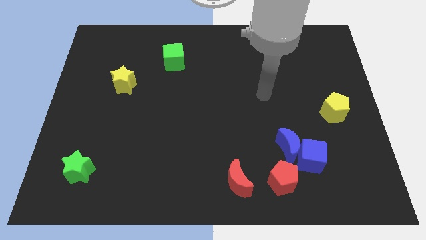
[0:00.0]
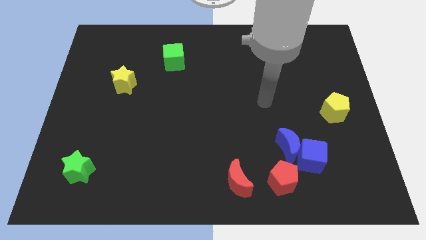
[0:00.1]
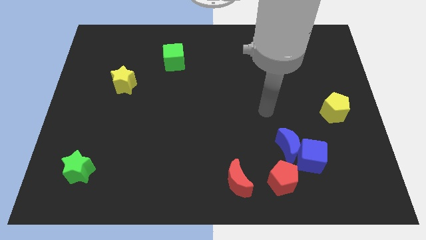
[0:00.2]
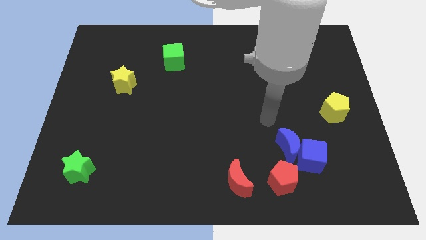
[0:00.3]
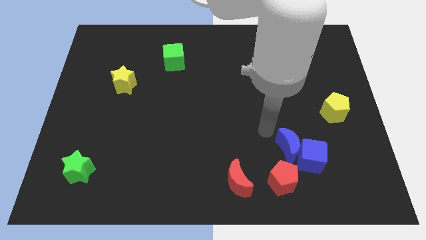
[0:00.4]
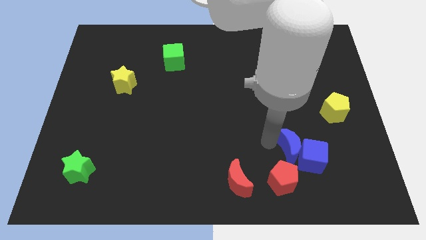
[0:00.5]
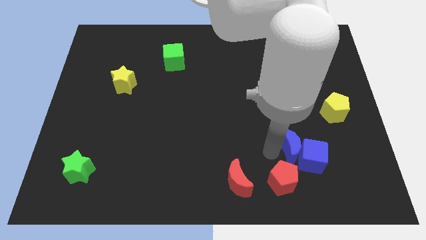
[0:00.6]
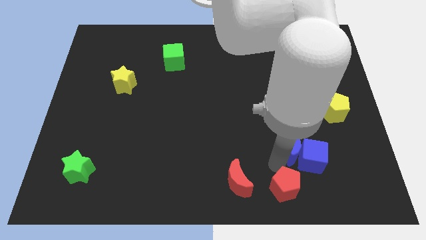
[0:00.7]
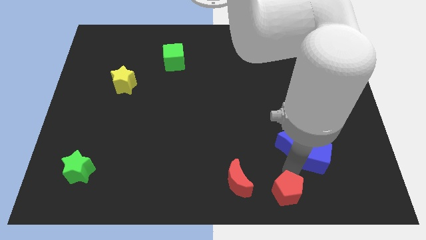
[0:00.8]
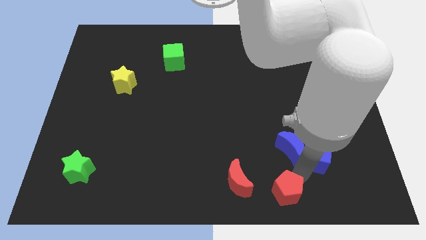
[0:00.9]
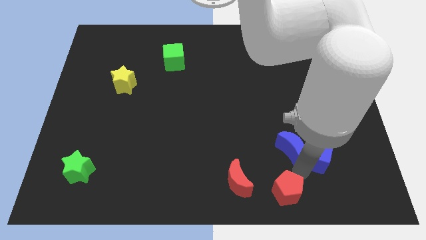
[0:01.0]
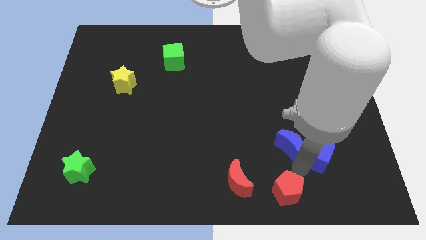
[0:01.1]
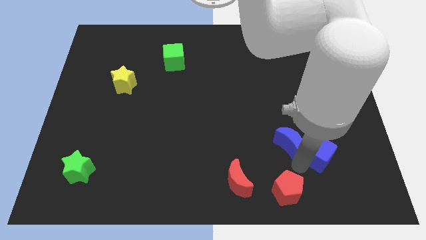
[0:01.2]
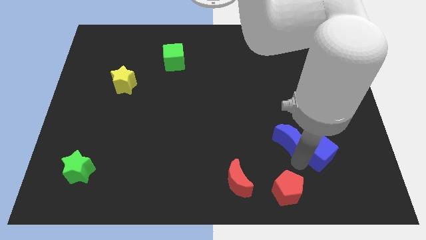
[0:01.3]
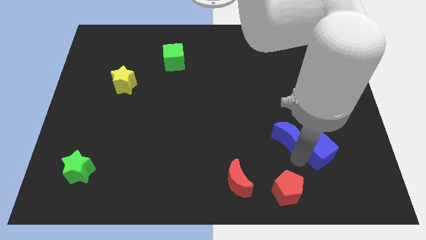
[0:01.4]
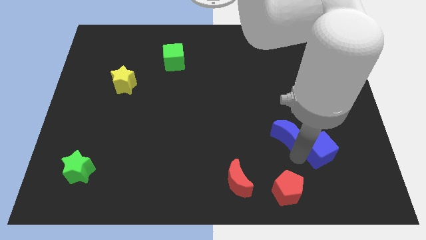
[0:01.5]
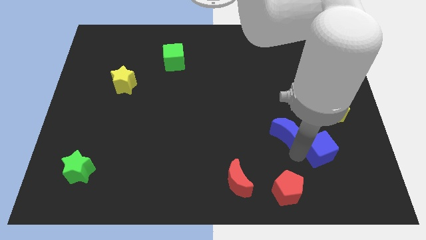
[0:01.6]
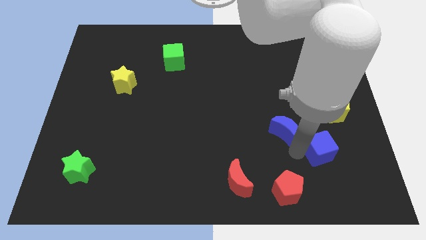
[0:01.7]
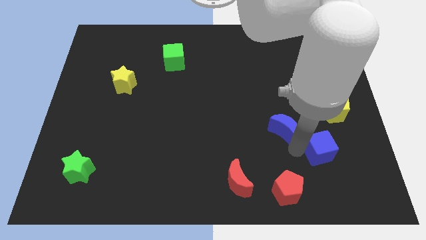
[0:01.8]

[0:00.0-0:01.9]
move the blue moon away from the blue cube and red pentagon

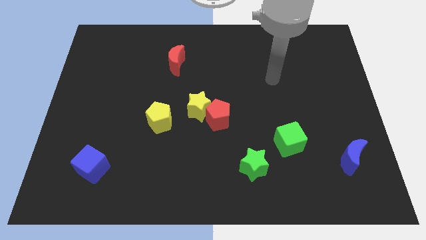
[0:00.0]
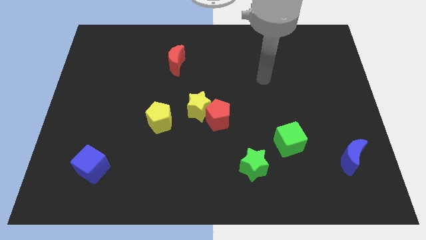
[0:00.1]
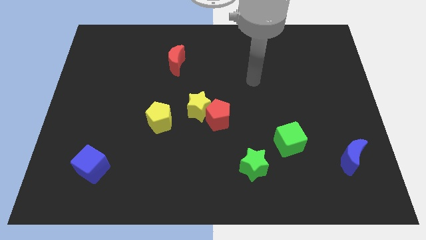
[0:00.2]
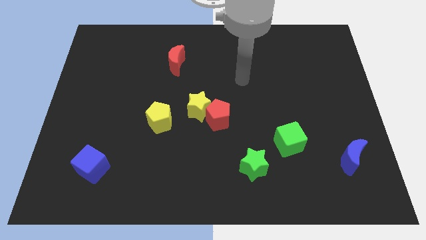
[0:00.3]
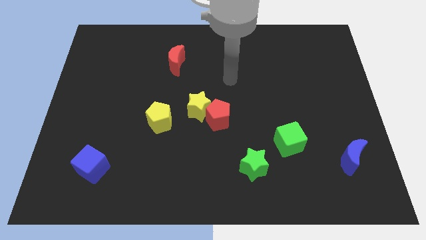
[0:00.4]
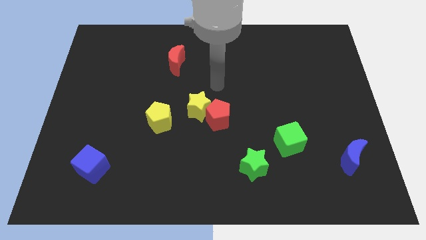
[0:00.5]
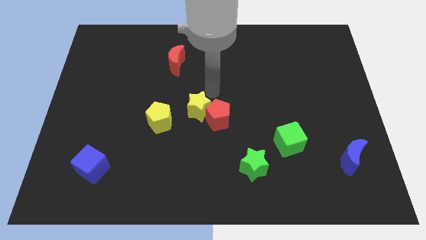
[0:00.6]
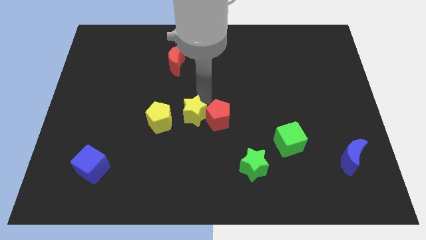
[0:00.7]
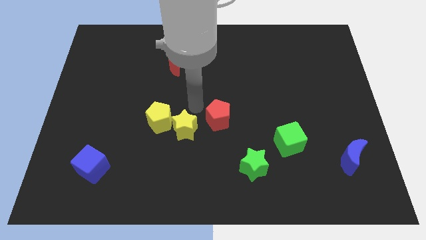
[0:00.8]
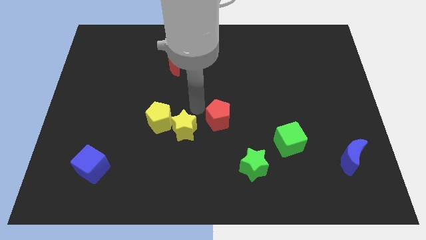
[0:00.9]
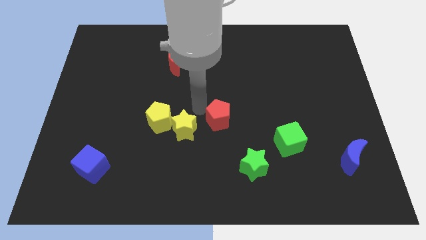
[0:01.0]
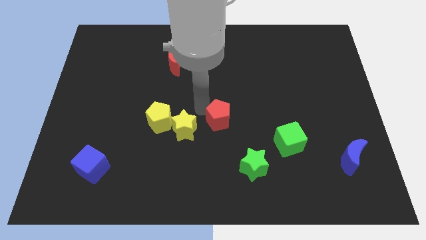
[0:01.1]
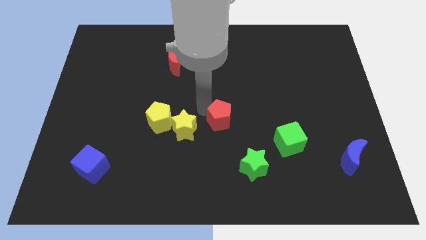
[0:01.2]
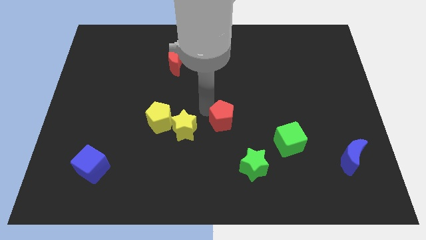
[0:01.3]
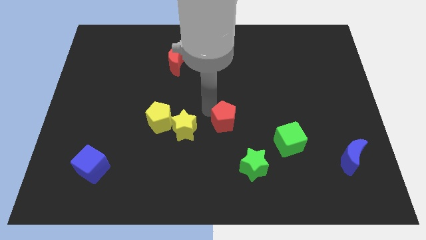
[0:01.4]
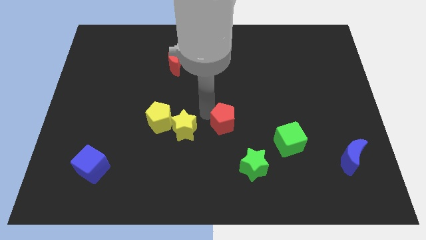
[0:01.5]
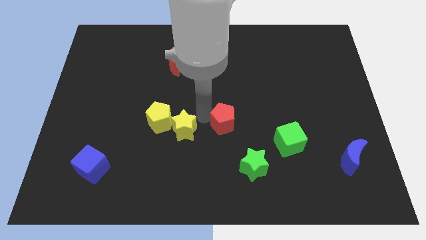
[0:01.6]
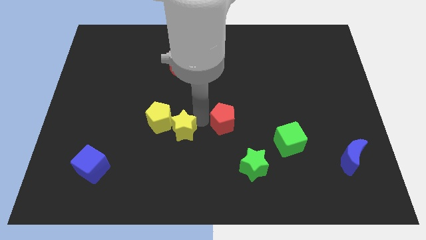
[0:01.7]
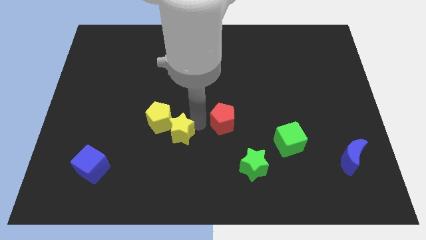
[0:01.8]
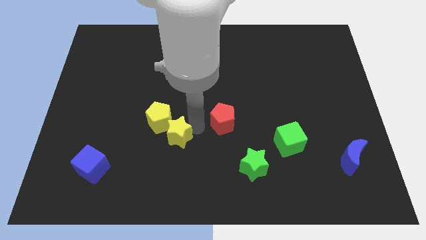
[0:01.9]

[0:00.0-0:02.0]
move the red pentagon away from the yellow star

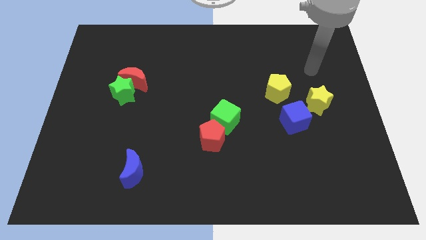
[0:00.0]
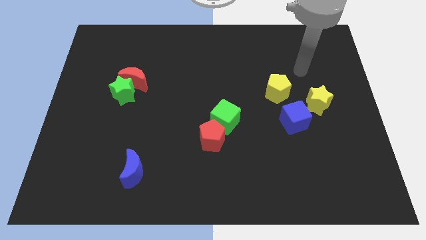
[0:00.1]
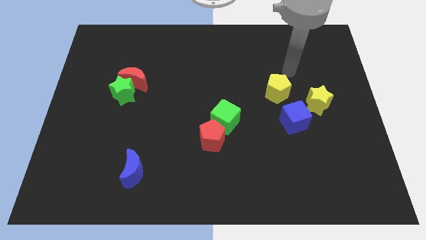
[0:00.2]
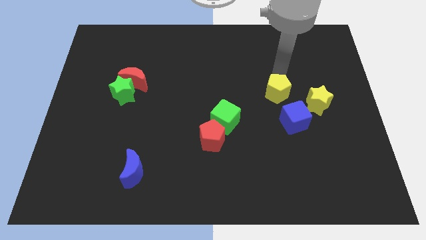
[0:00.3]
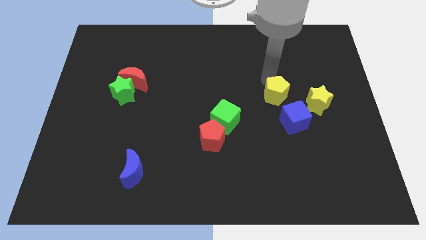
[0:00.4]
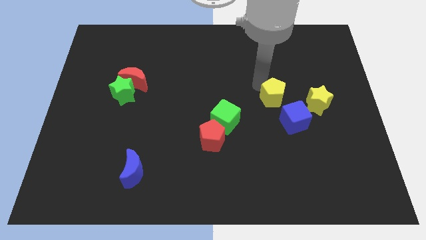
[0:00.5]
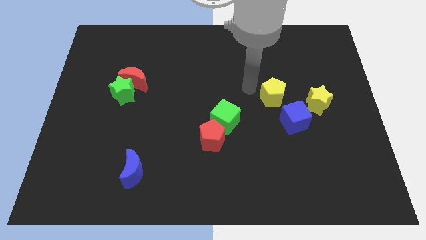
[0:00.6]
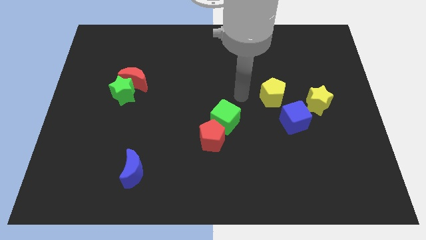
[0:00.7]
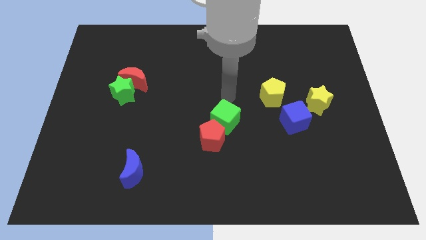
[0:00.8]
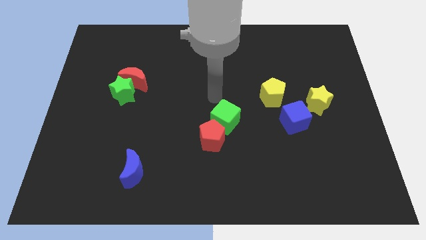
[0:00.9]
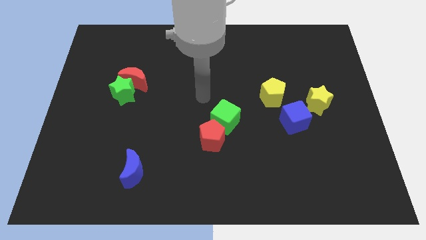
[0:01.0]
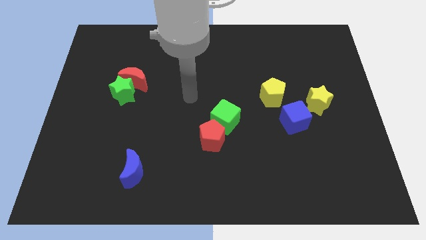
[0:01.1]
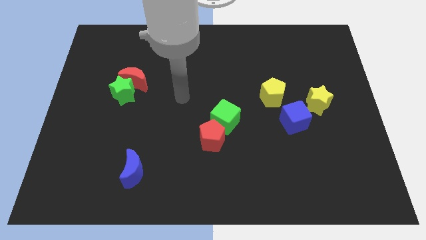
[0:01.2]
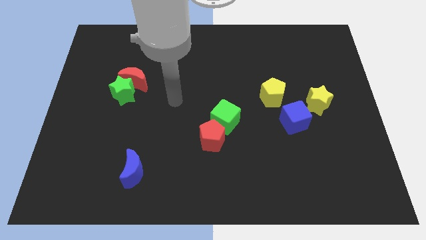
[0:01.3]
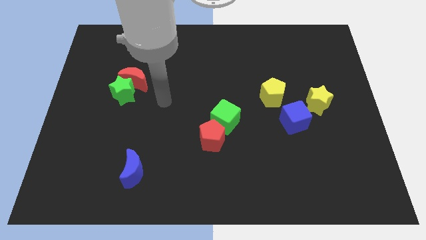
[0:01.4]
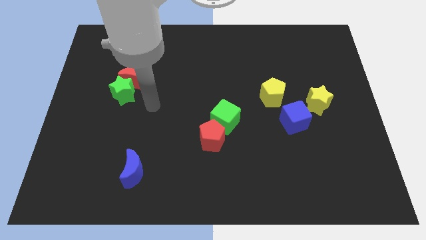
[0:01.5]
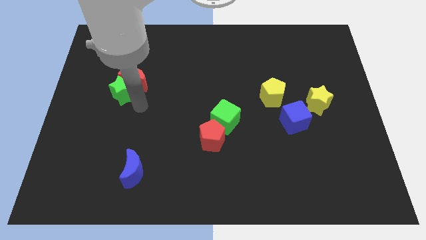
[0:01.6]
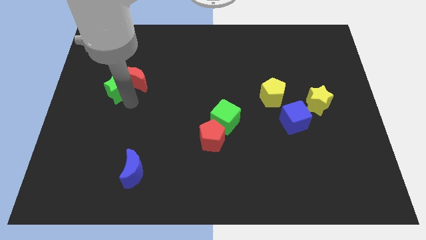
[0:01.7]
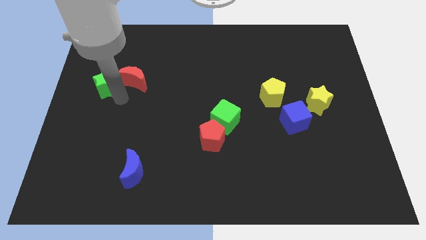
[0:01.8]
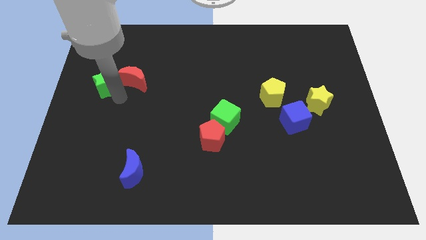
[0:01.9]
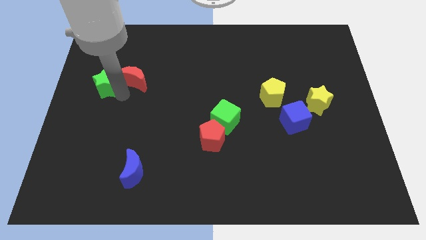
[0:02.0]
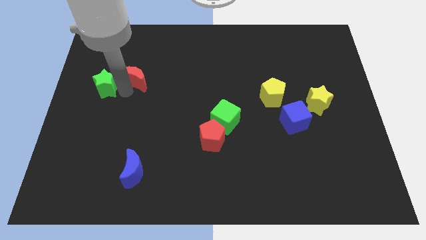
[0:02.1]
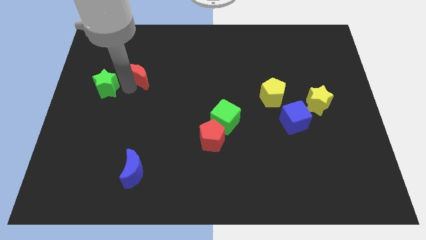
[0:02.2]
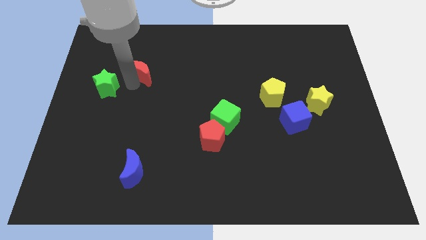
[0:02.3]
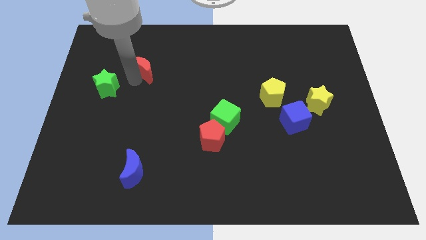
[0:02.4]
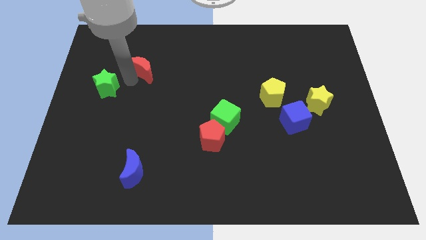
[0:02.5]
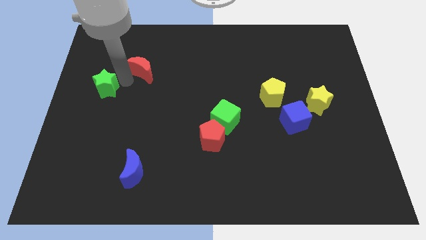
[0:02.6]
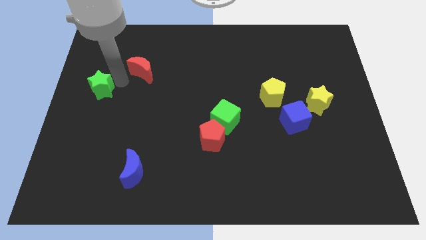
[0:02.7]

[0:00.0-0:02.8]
separate the red moon from the green star

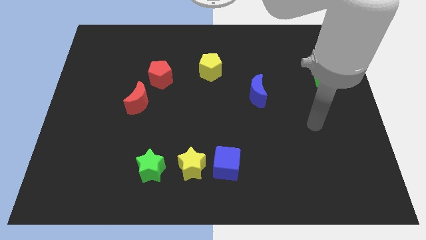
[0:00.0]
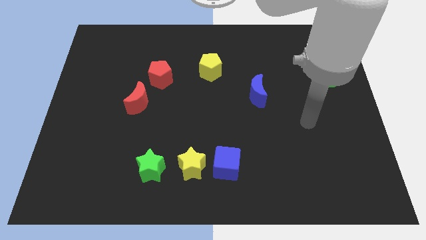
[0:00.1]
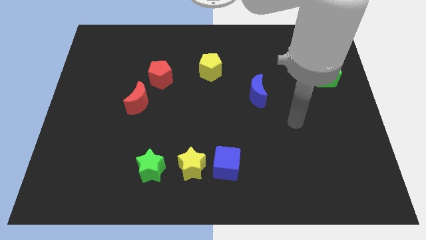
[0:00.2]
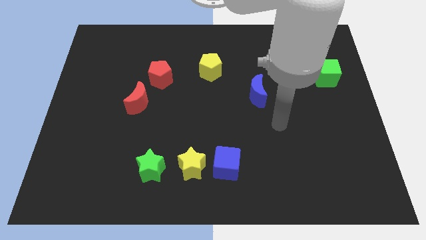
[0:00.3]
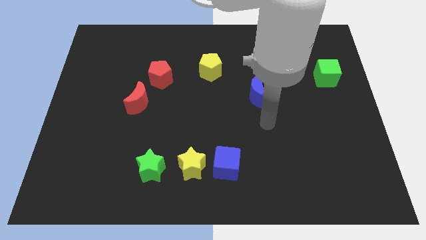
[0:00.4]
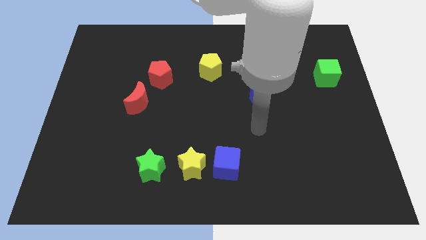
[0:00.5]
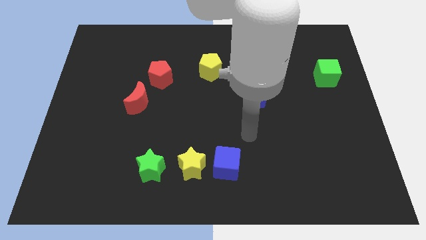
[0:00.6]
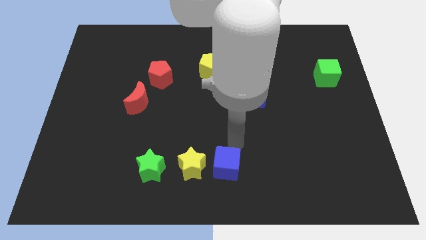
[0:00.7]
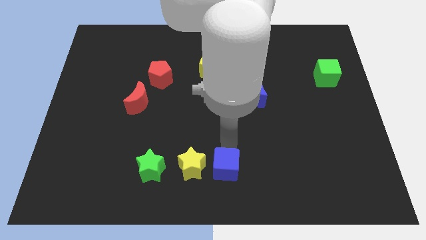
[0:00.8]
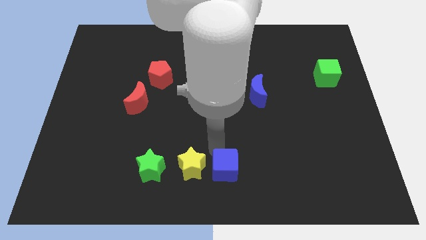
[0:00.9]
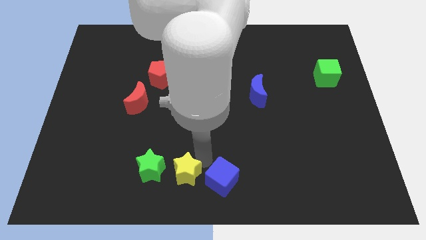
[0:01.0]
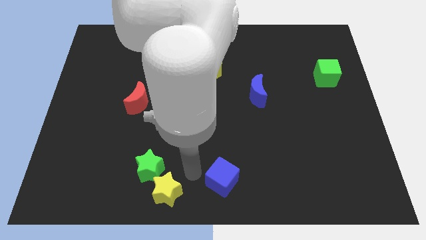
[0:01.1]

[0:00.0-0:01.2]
pull the blue cube apart from the yellow star

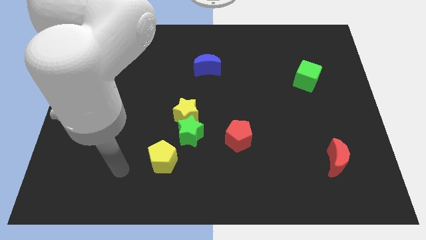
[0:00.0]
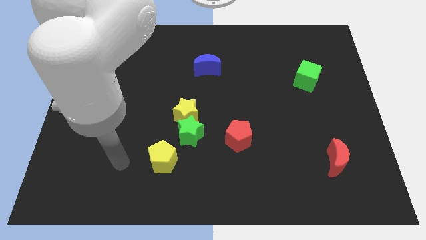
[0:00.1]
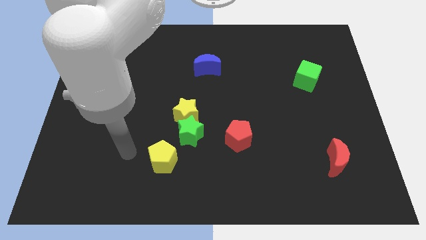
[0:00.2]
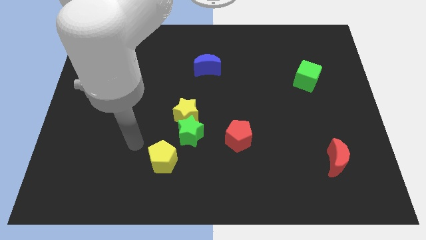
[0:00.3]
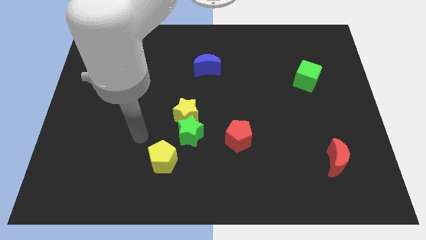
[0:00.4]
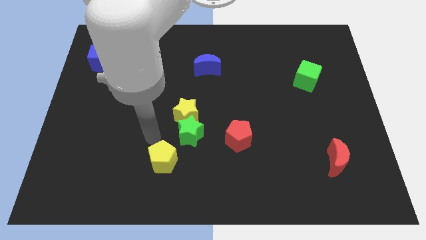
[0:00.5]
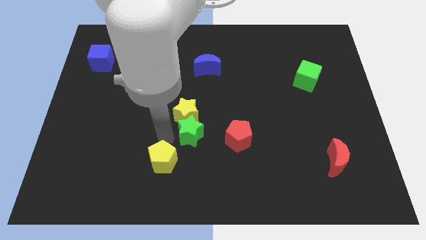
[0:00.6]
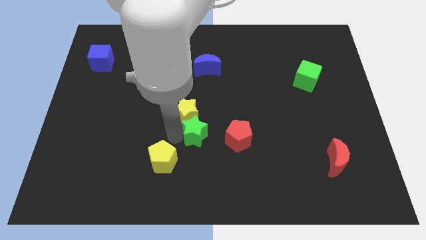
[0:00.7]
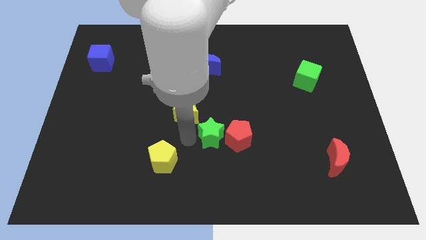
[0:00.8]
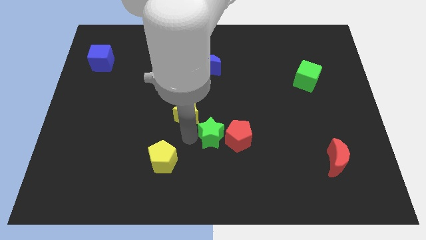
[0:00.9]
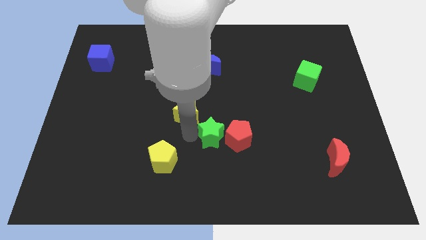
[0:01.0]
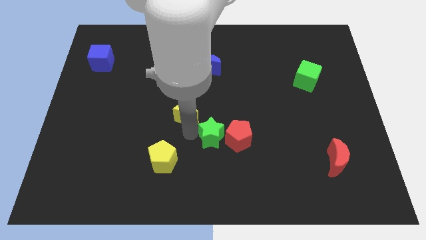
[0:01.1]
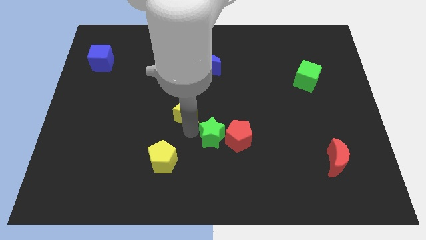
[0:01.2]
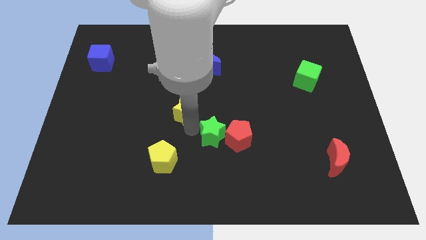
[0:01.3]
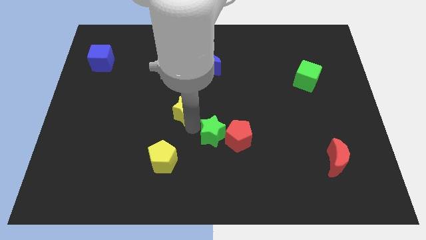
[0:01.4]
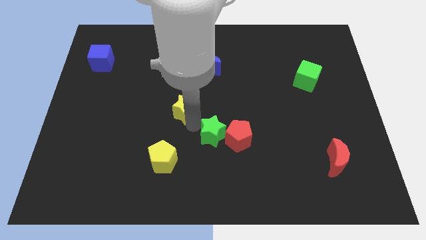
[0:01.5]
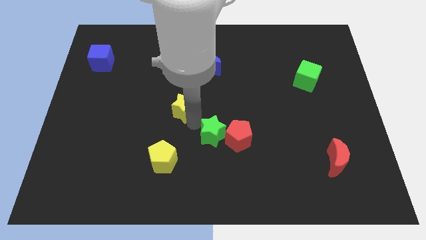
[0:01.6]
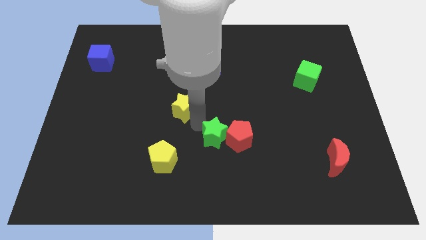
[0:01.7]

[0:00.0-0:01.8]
pull the yellow star apart from the green star
